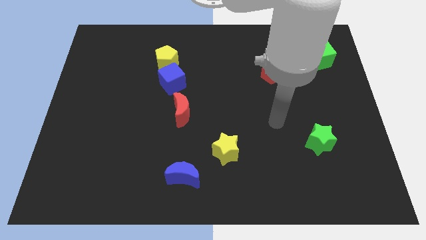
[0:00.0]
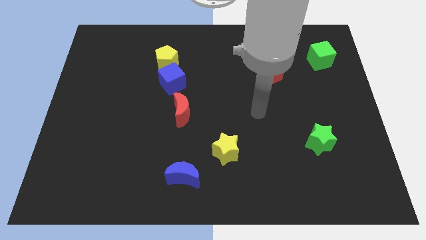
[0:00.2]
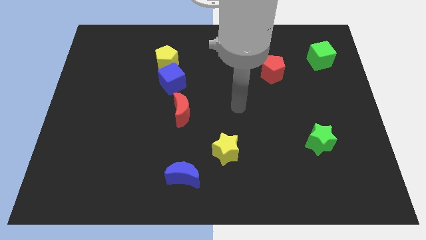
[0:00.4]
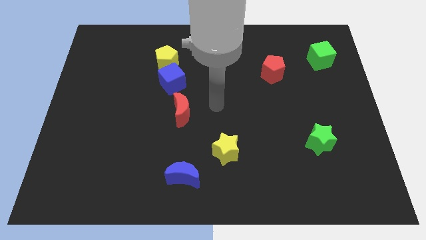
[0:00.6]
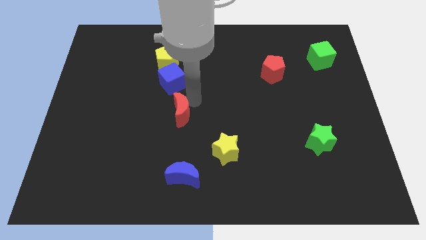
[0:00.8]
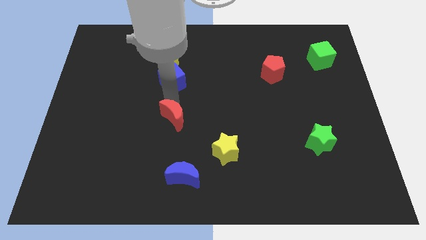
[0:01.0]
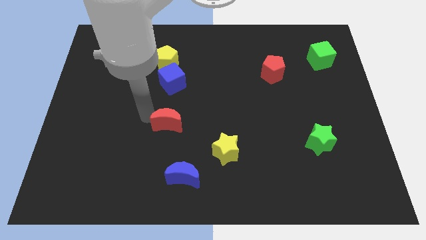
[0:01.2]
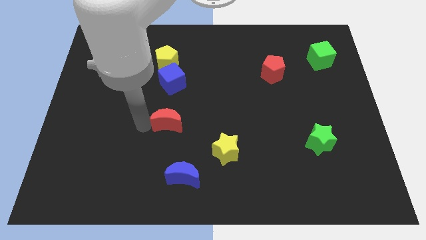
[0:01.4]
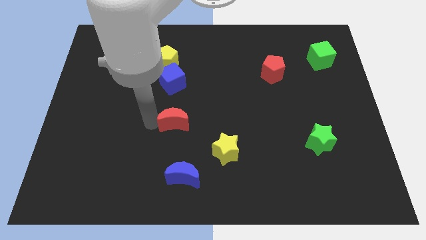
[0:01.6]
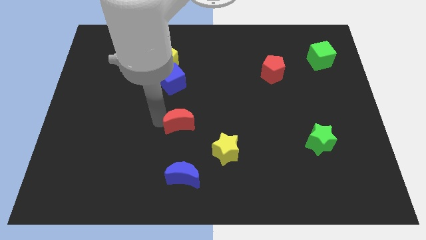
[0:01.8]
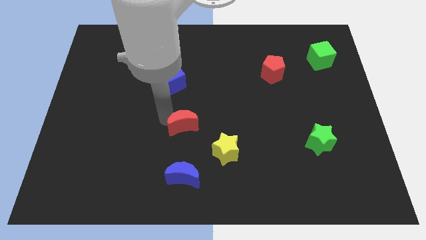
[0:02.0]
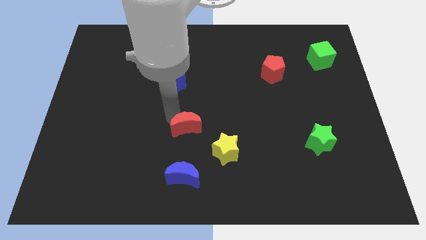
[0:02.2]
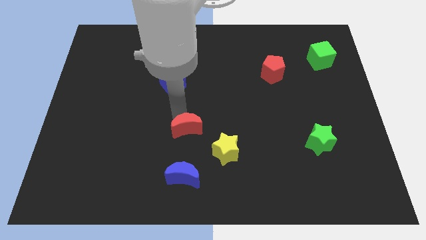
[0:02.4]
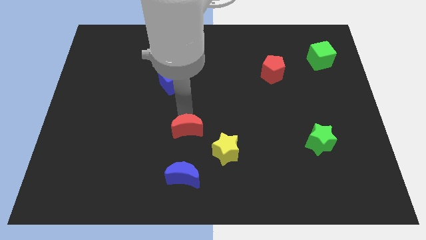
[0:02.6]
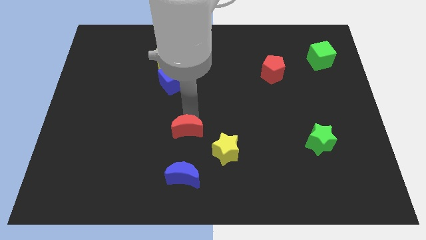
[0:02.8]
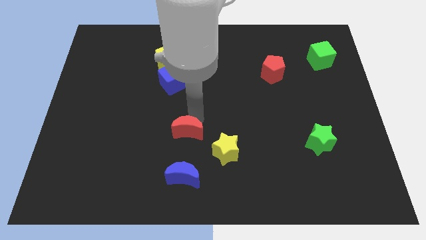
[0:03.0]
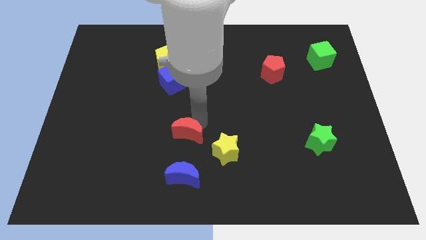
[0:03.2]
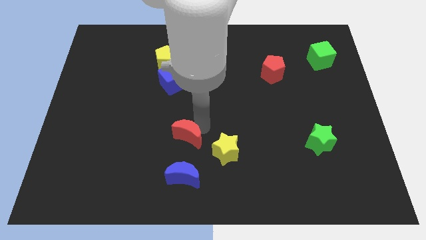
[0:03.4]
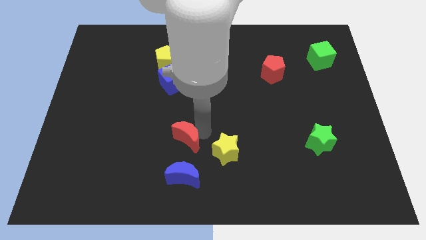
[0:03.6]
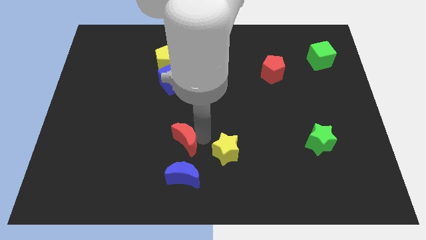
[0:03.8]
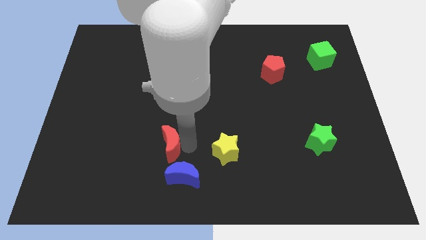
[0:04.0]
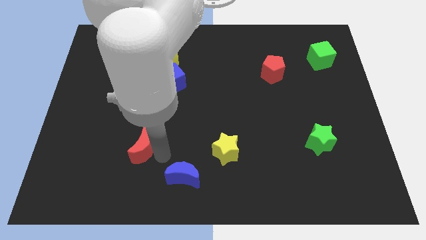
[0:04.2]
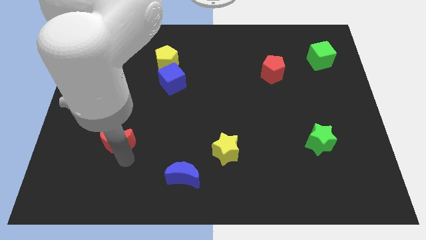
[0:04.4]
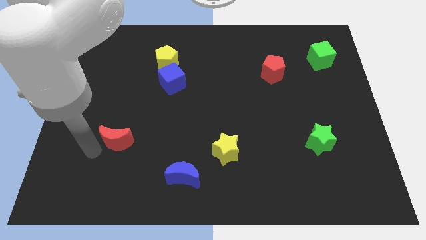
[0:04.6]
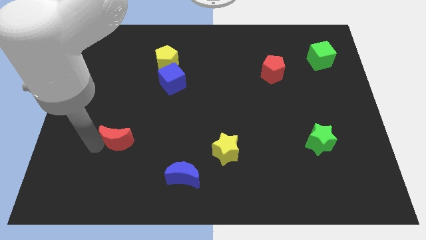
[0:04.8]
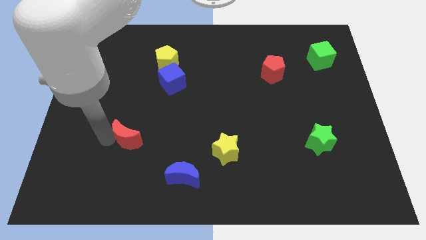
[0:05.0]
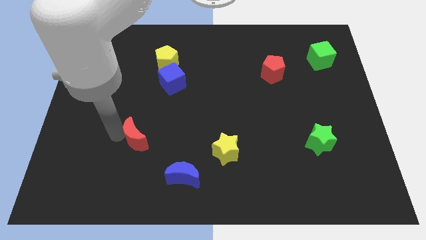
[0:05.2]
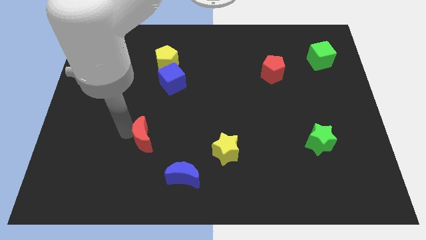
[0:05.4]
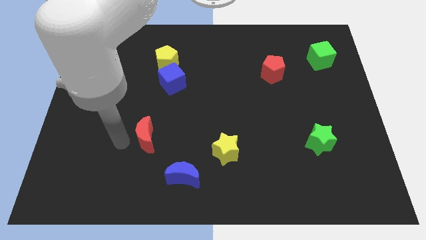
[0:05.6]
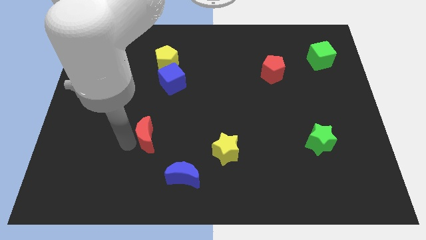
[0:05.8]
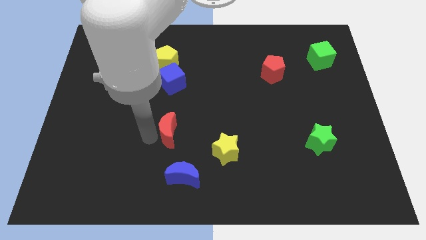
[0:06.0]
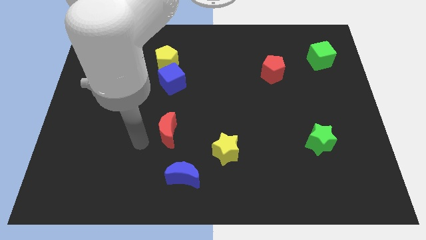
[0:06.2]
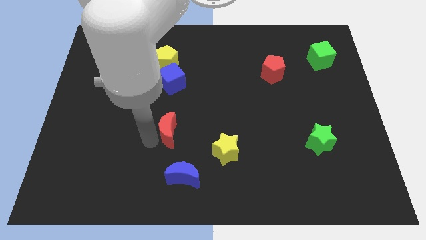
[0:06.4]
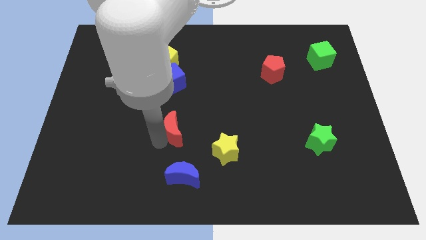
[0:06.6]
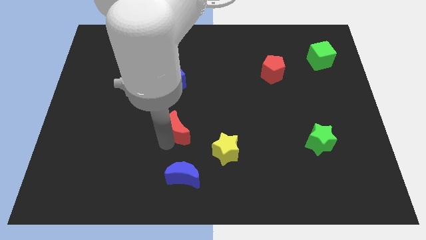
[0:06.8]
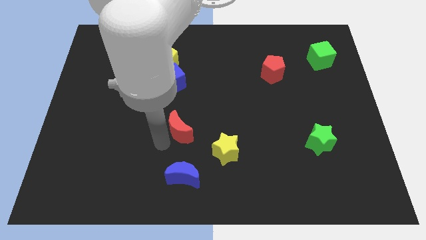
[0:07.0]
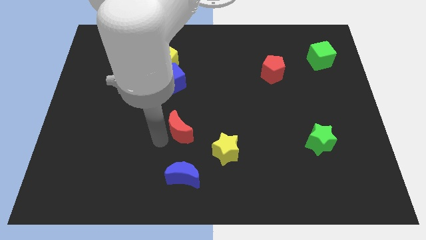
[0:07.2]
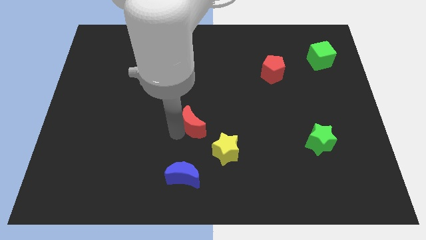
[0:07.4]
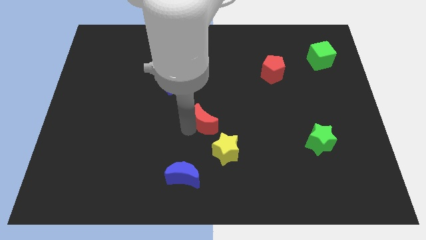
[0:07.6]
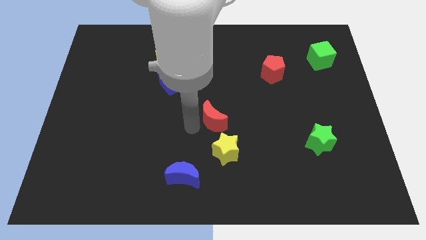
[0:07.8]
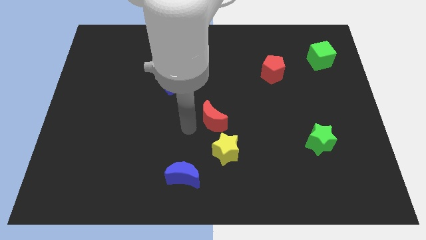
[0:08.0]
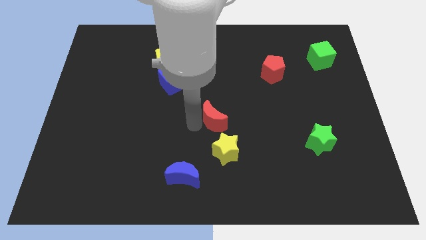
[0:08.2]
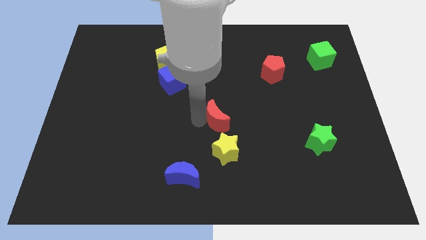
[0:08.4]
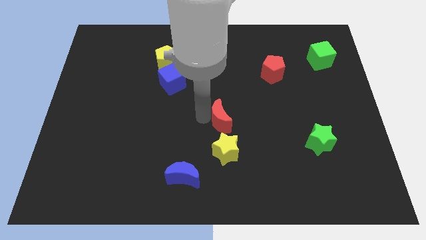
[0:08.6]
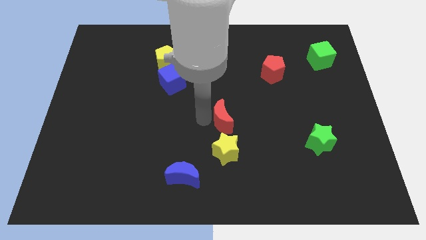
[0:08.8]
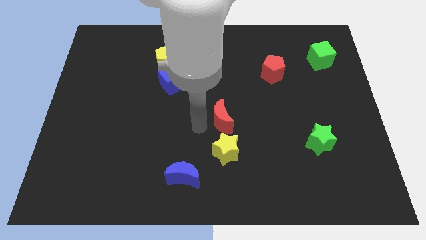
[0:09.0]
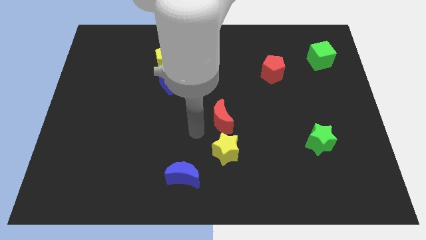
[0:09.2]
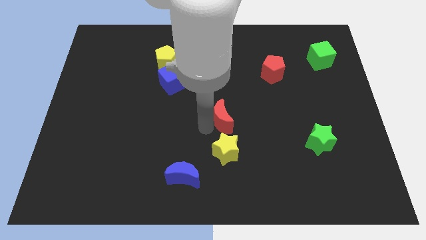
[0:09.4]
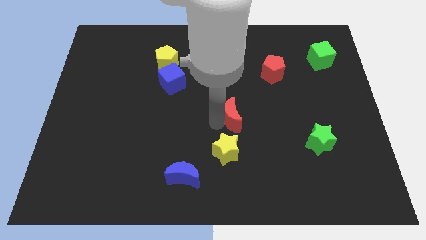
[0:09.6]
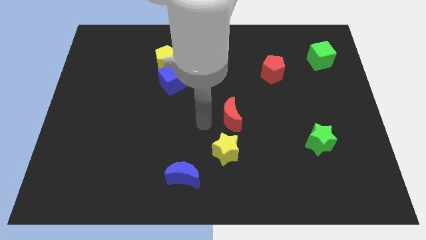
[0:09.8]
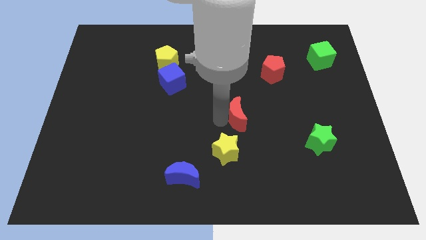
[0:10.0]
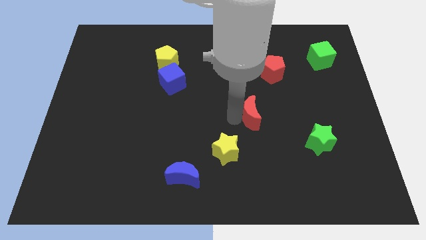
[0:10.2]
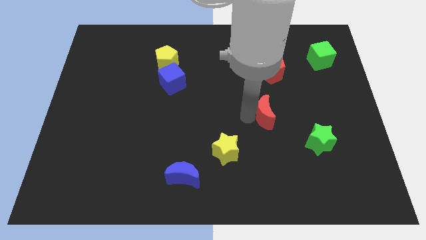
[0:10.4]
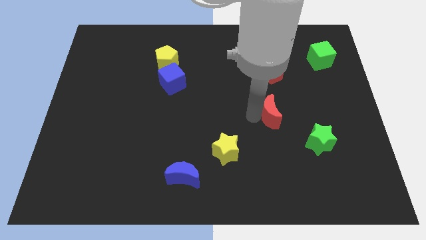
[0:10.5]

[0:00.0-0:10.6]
move the red moon to the right

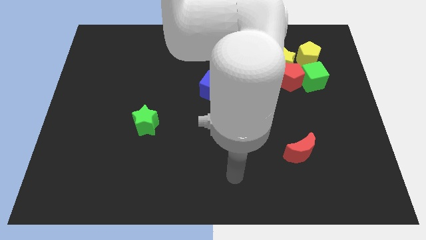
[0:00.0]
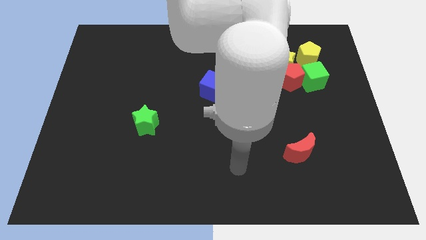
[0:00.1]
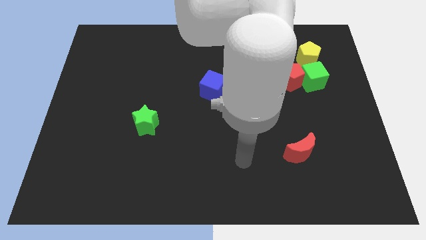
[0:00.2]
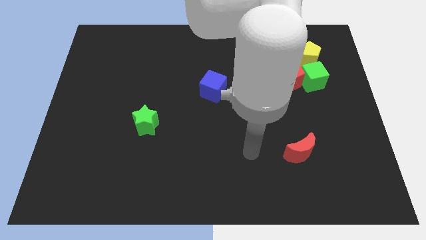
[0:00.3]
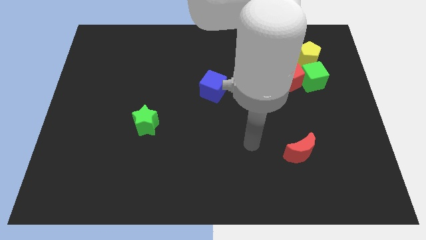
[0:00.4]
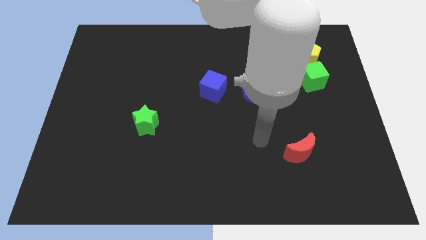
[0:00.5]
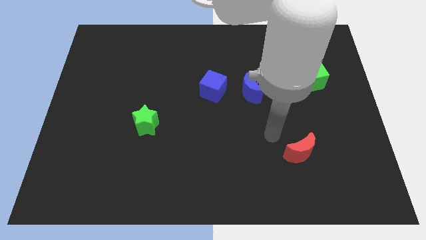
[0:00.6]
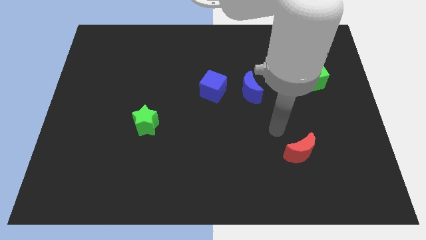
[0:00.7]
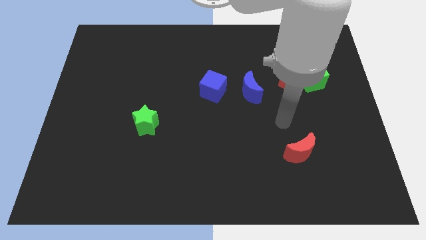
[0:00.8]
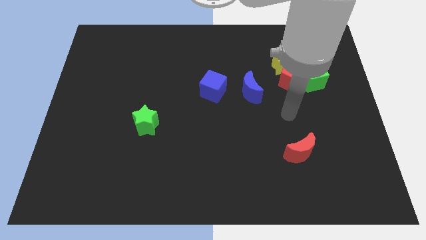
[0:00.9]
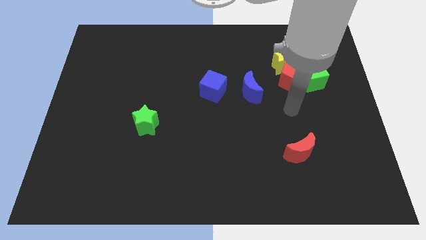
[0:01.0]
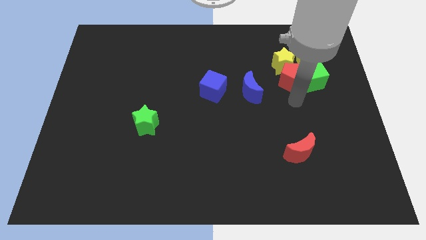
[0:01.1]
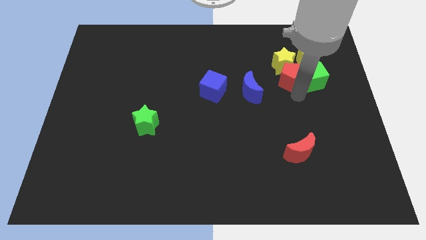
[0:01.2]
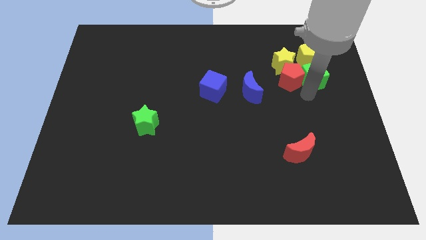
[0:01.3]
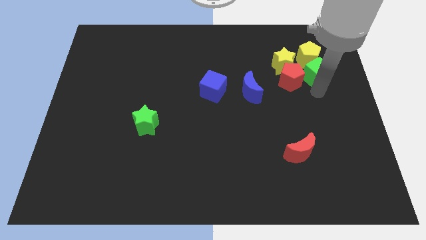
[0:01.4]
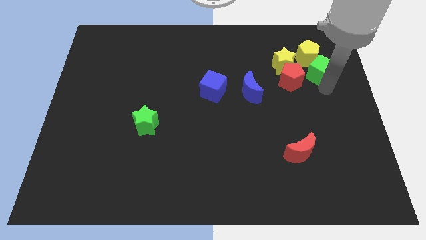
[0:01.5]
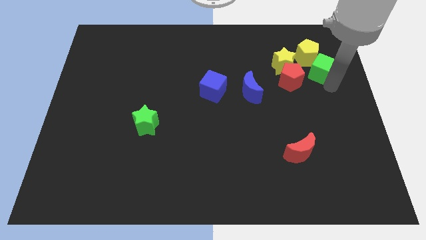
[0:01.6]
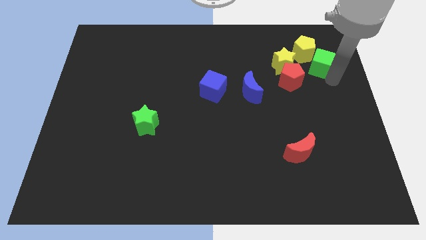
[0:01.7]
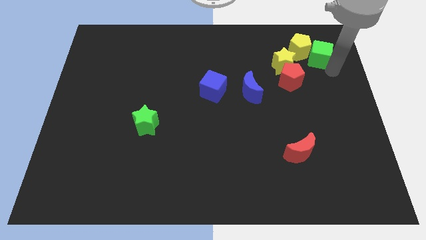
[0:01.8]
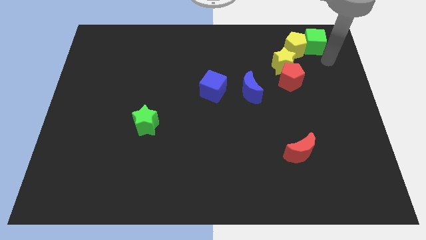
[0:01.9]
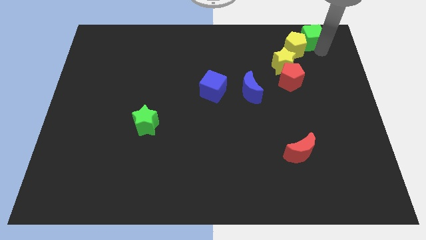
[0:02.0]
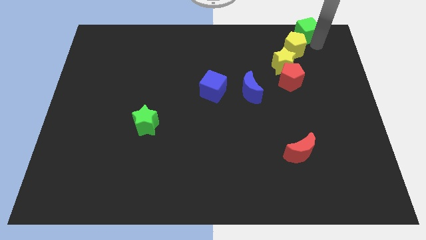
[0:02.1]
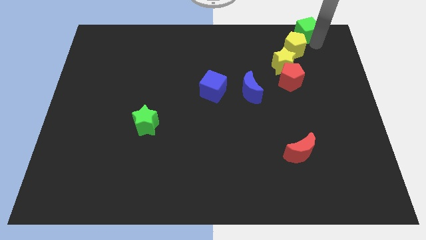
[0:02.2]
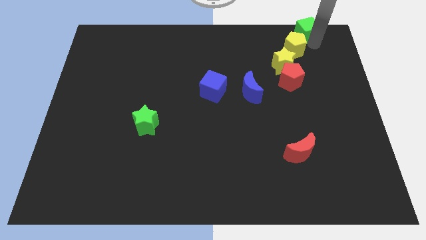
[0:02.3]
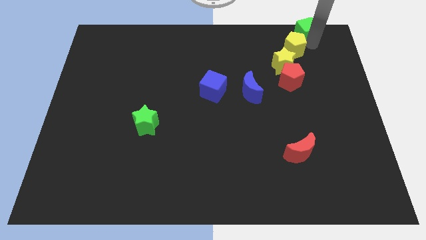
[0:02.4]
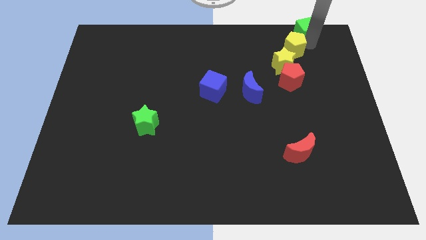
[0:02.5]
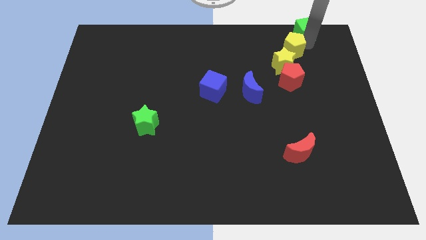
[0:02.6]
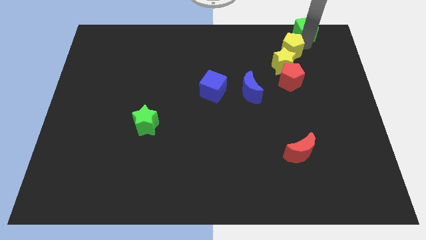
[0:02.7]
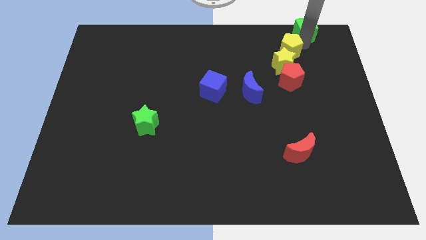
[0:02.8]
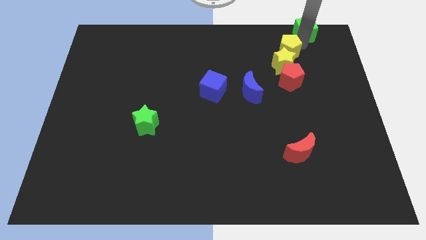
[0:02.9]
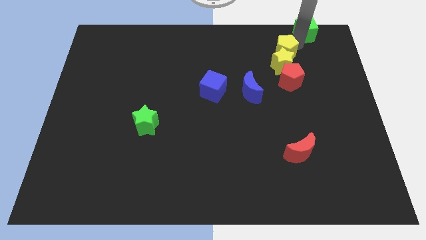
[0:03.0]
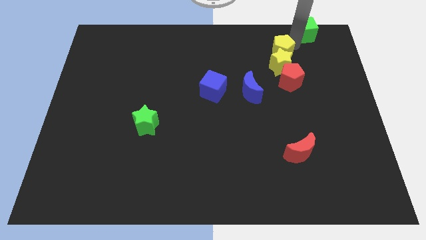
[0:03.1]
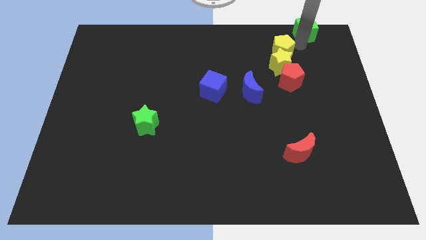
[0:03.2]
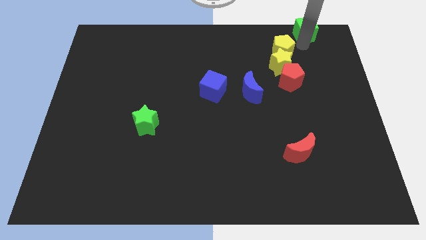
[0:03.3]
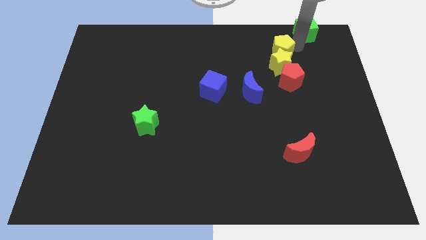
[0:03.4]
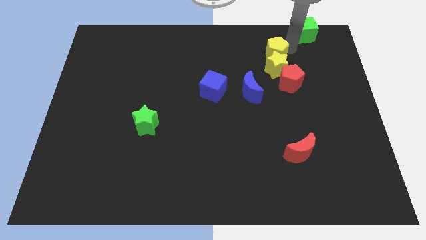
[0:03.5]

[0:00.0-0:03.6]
push the yellow pentagon to the left a little
